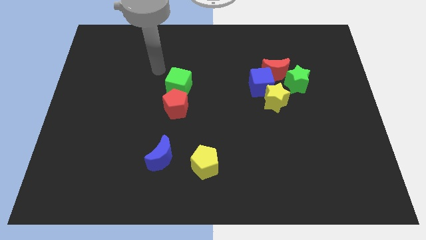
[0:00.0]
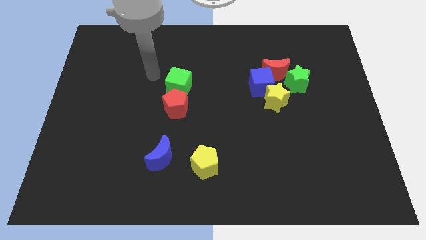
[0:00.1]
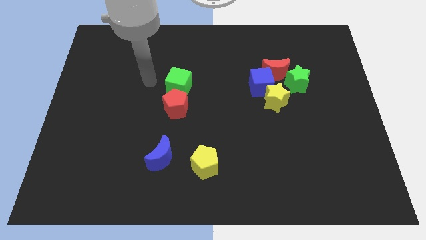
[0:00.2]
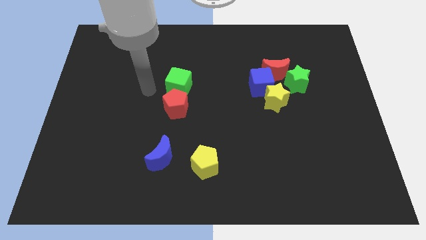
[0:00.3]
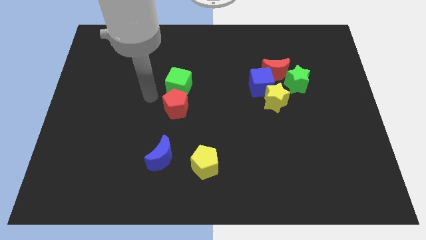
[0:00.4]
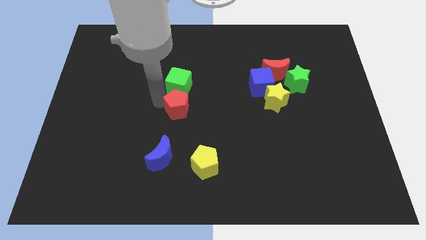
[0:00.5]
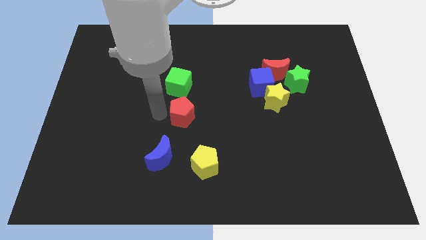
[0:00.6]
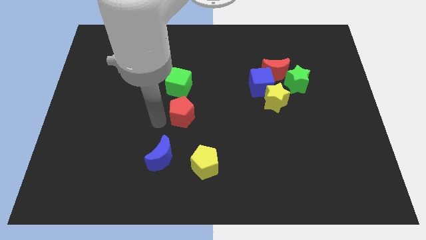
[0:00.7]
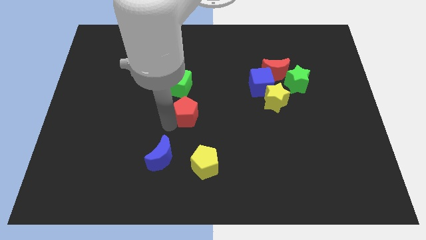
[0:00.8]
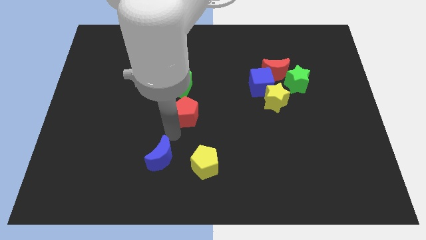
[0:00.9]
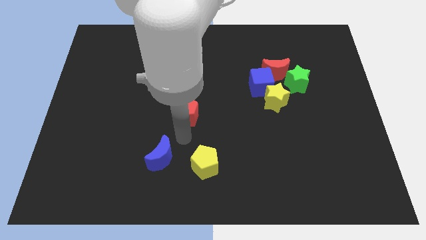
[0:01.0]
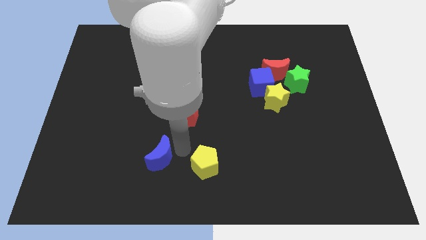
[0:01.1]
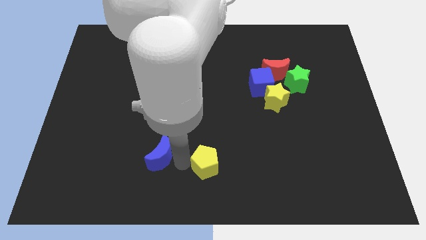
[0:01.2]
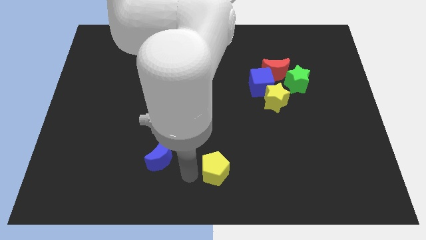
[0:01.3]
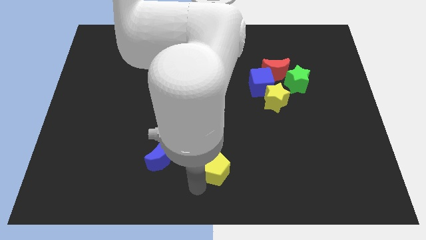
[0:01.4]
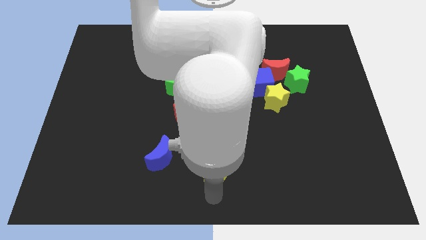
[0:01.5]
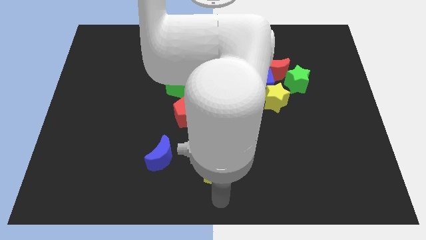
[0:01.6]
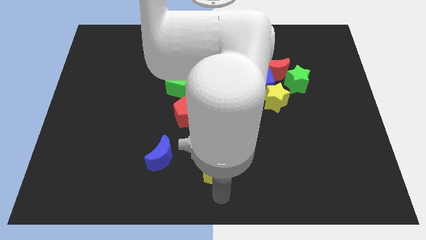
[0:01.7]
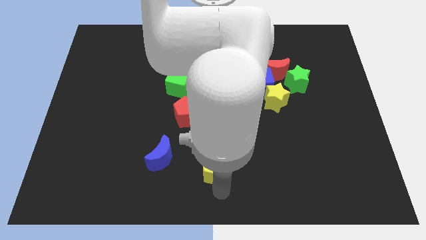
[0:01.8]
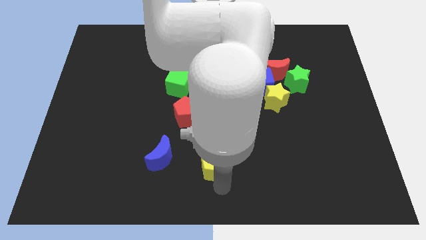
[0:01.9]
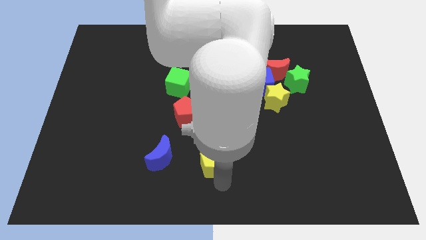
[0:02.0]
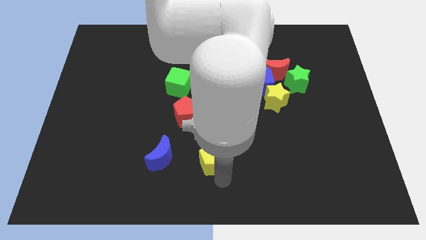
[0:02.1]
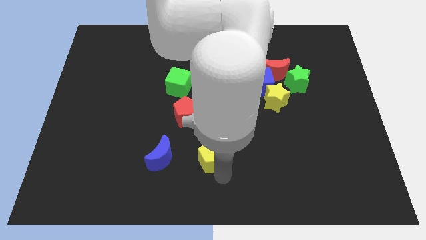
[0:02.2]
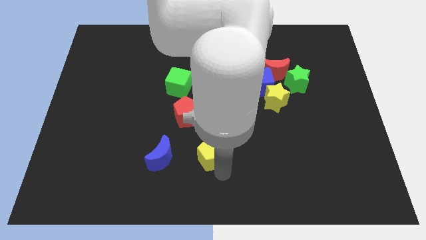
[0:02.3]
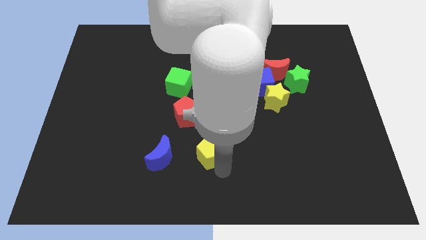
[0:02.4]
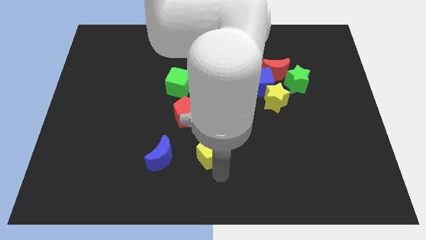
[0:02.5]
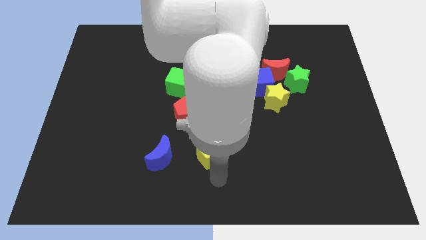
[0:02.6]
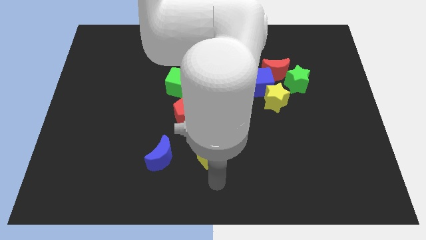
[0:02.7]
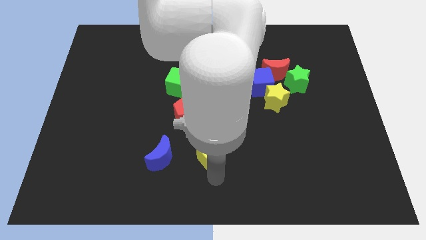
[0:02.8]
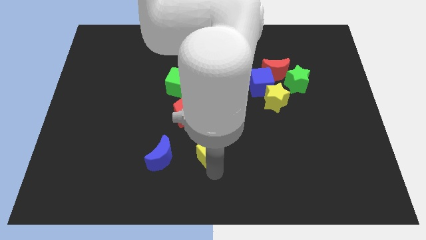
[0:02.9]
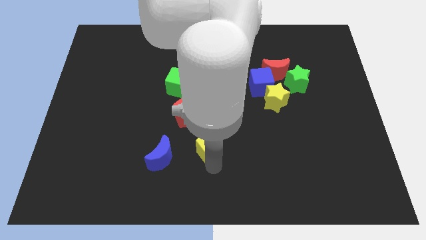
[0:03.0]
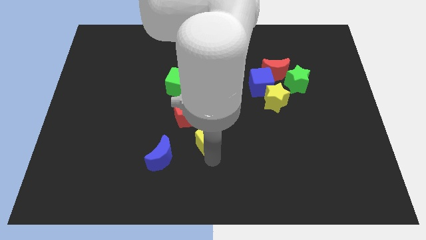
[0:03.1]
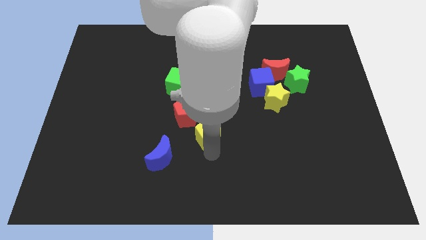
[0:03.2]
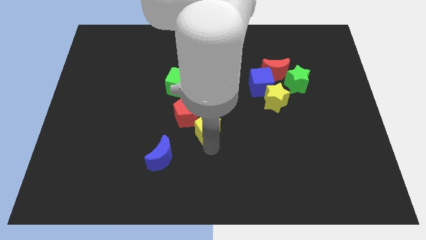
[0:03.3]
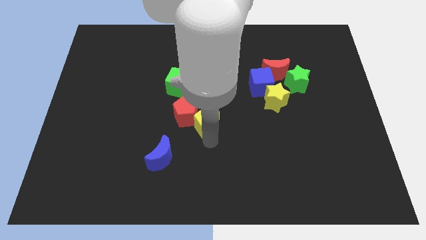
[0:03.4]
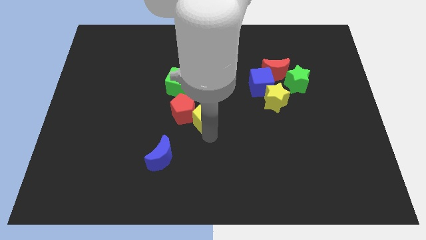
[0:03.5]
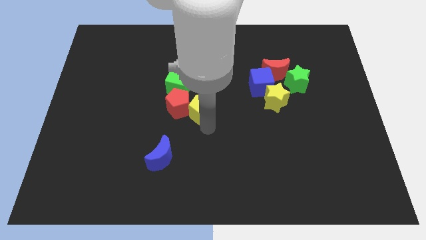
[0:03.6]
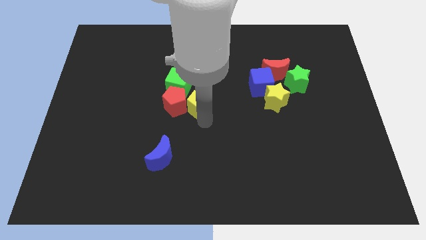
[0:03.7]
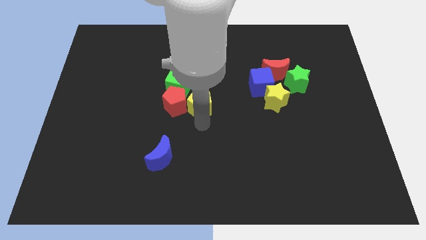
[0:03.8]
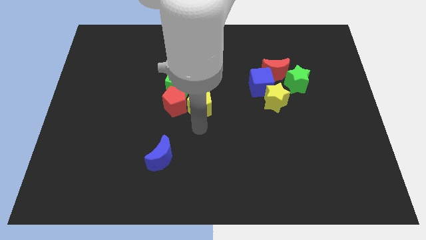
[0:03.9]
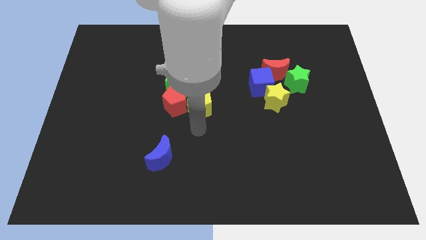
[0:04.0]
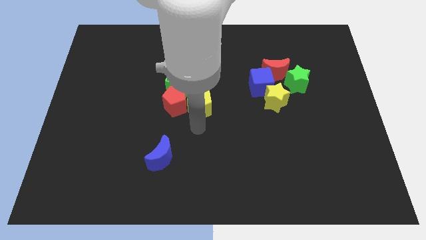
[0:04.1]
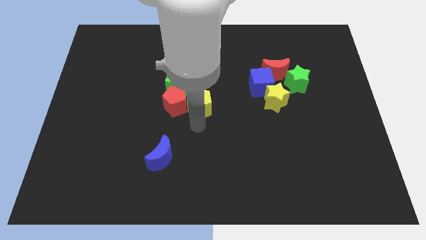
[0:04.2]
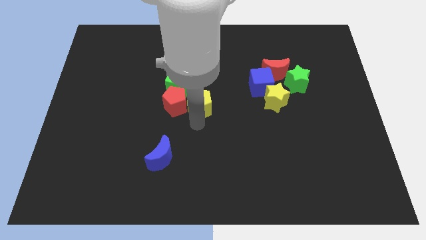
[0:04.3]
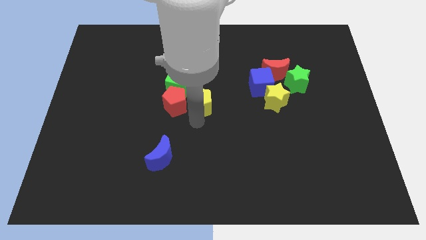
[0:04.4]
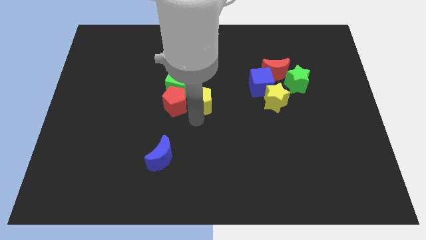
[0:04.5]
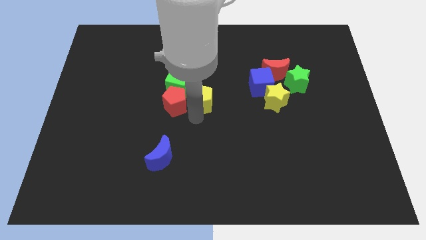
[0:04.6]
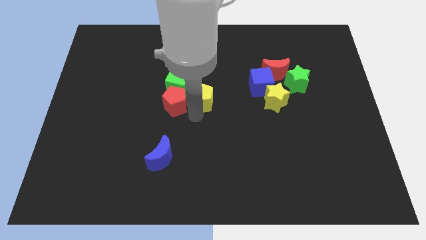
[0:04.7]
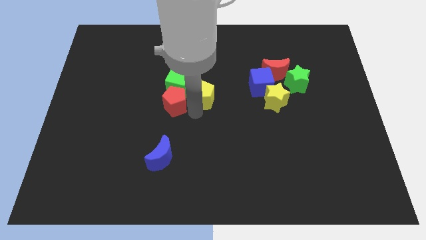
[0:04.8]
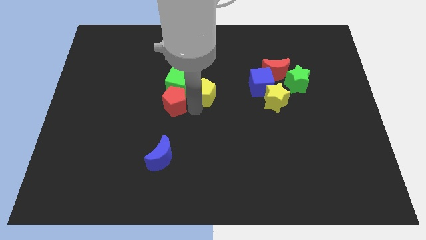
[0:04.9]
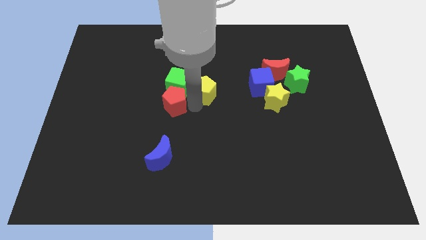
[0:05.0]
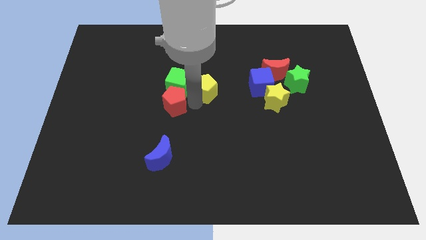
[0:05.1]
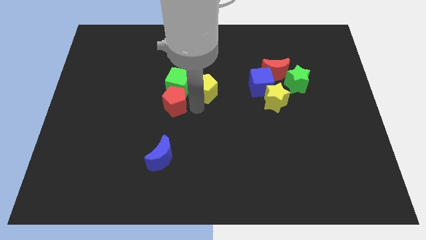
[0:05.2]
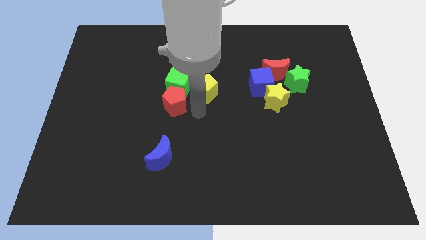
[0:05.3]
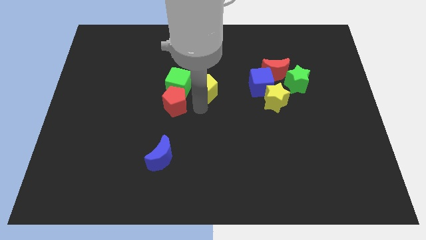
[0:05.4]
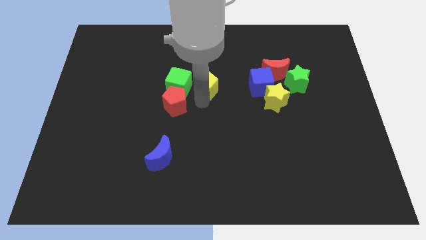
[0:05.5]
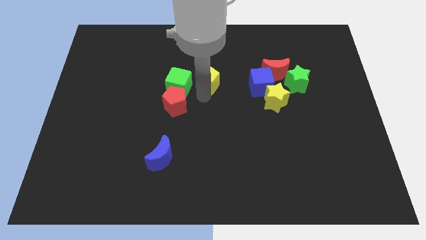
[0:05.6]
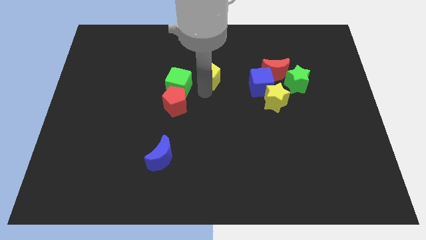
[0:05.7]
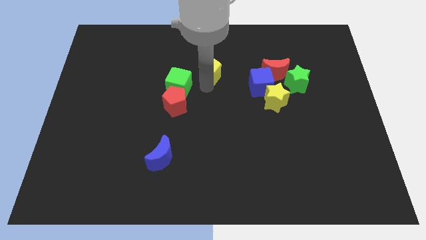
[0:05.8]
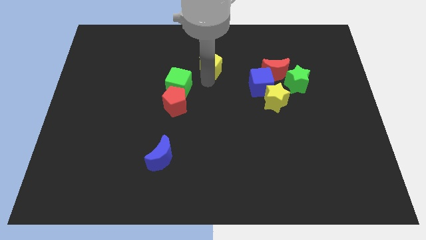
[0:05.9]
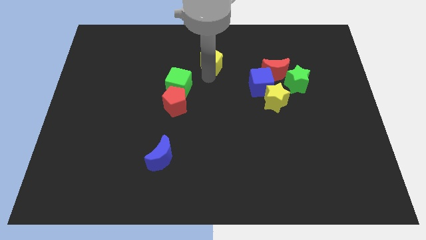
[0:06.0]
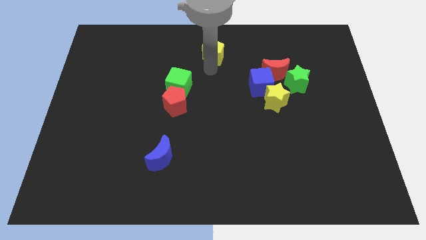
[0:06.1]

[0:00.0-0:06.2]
move the yellow pentagon to the top
